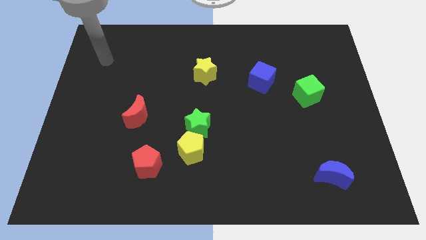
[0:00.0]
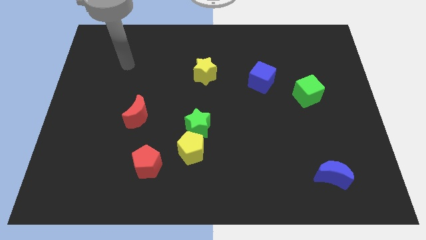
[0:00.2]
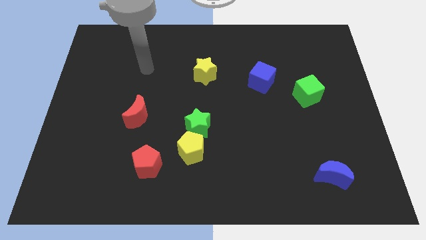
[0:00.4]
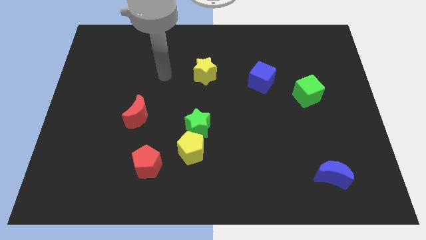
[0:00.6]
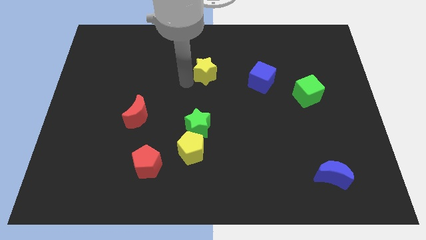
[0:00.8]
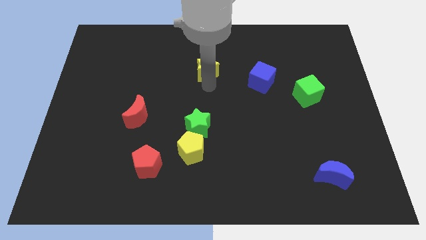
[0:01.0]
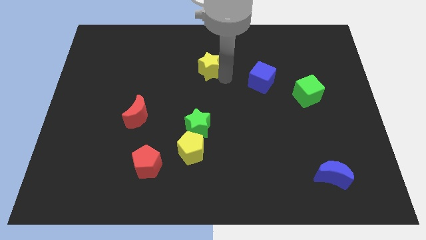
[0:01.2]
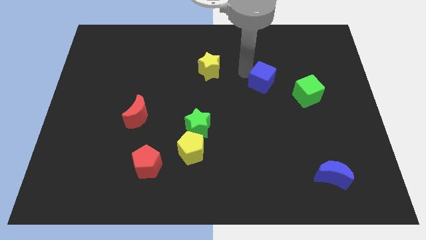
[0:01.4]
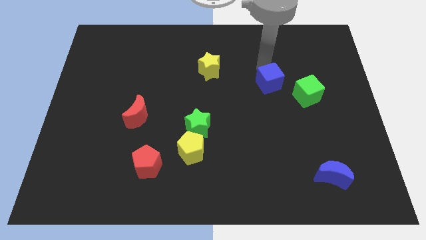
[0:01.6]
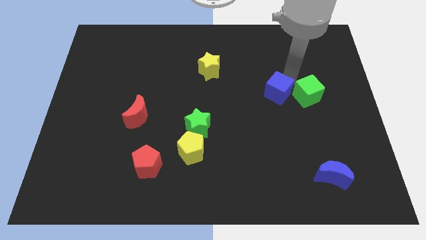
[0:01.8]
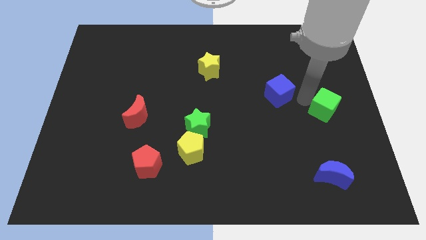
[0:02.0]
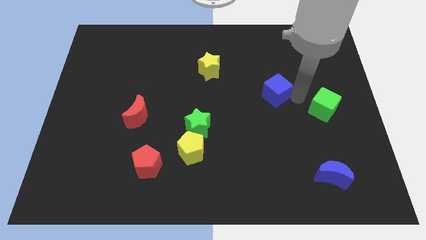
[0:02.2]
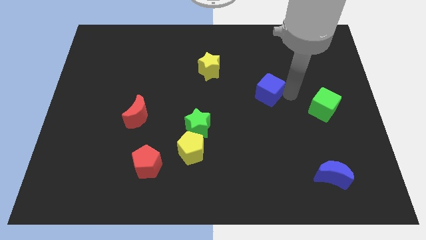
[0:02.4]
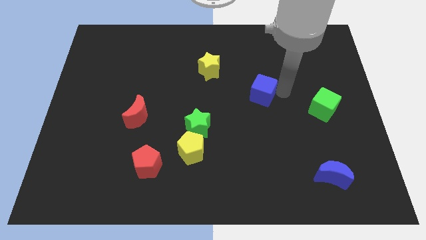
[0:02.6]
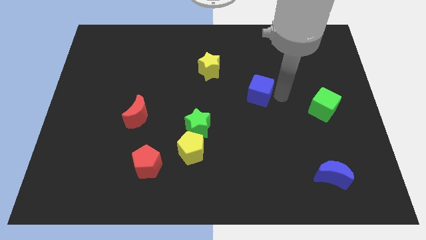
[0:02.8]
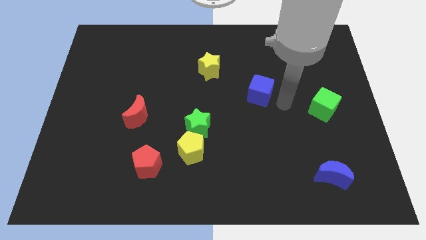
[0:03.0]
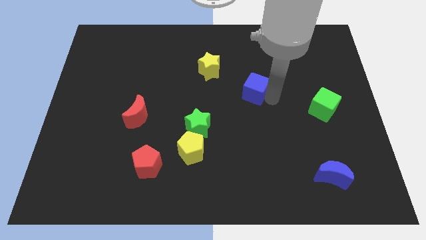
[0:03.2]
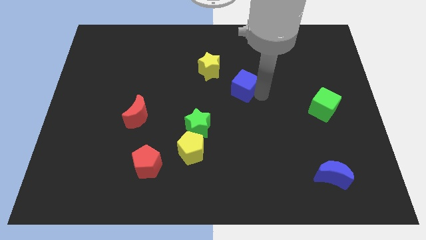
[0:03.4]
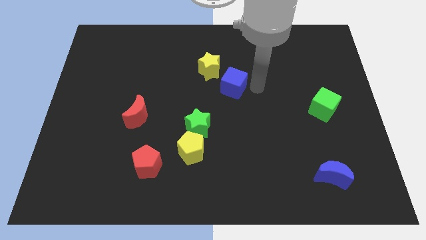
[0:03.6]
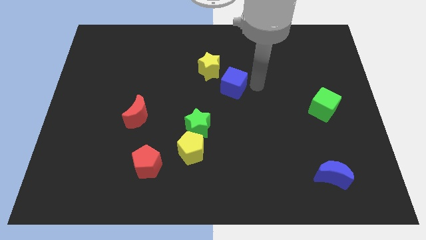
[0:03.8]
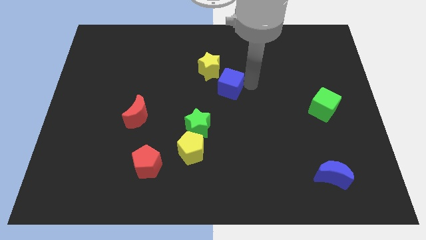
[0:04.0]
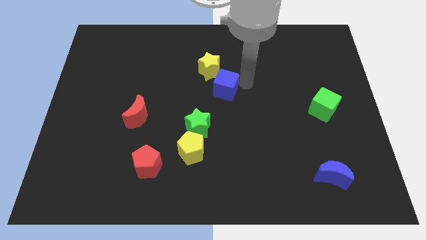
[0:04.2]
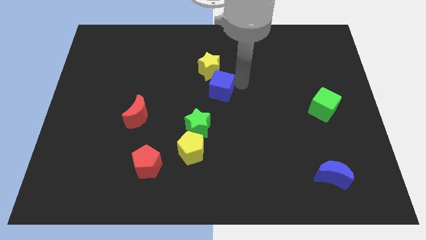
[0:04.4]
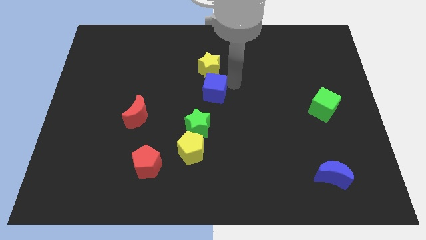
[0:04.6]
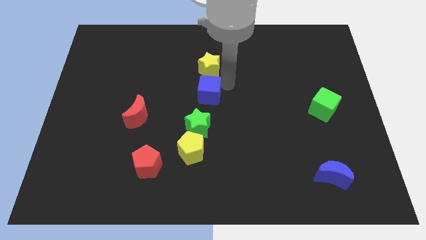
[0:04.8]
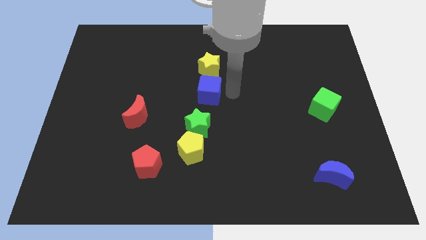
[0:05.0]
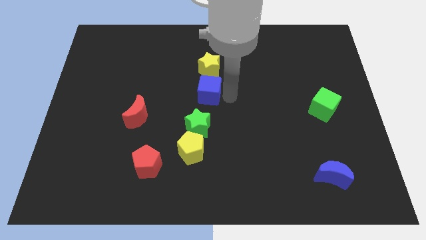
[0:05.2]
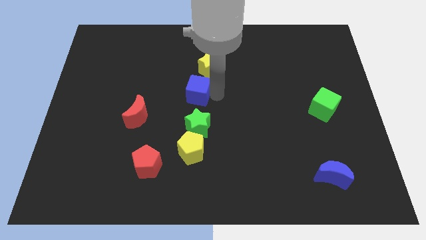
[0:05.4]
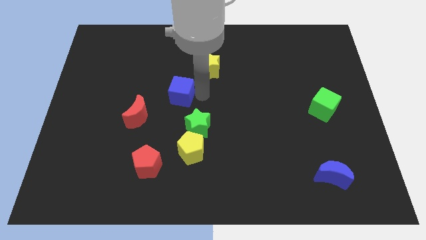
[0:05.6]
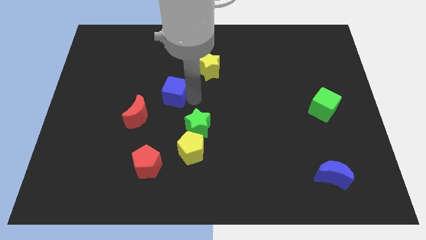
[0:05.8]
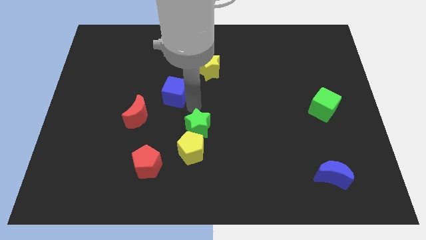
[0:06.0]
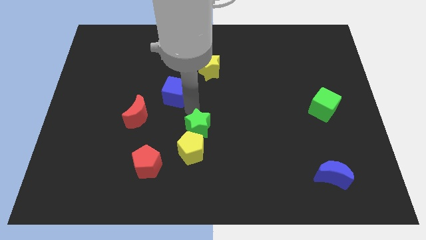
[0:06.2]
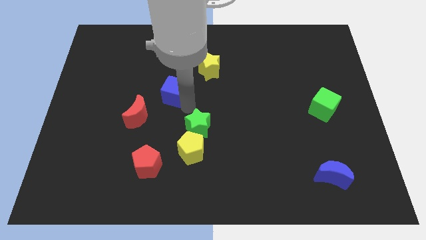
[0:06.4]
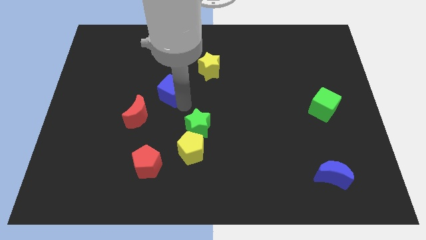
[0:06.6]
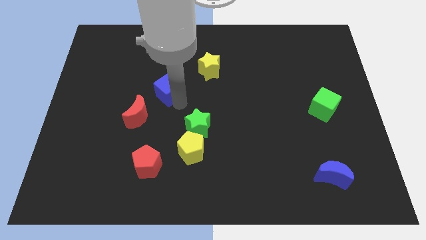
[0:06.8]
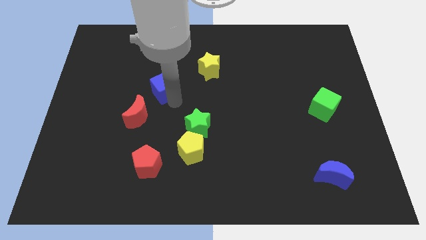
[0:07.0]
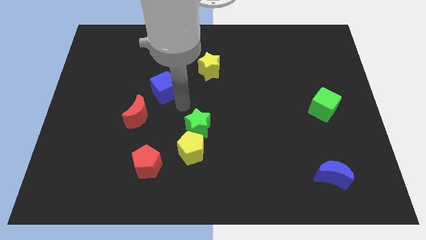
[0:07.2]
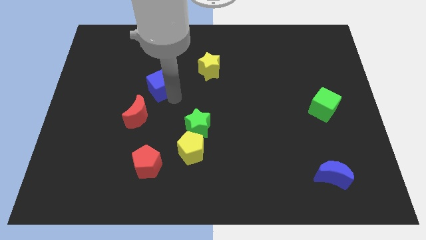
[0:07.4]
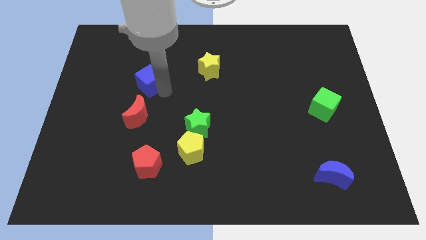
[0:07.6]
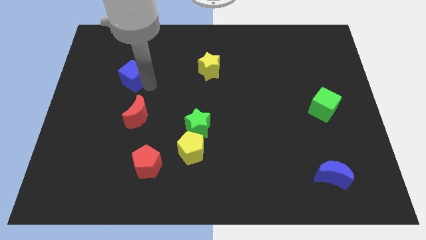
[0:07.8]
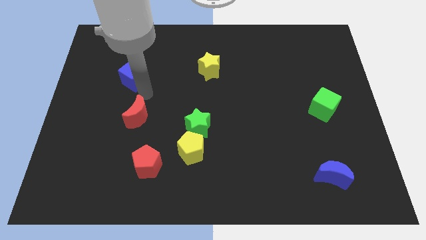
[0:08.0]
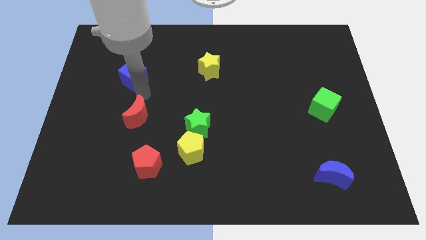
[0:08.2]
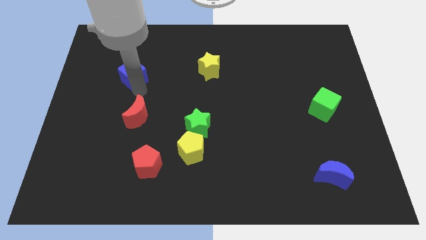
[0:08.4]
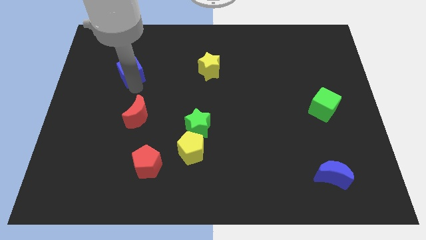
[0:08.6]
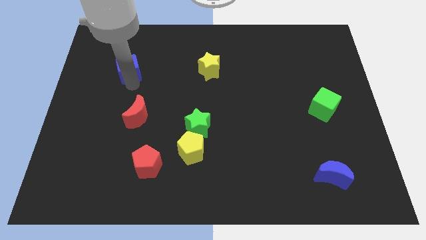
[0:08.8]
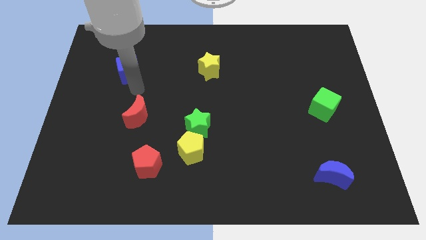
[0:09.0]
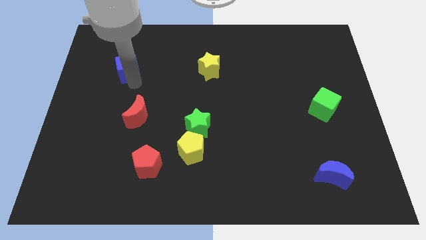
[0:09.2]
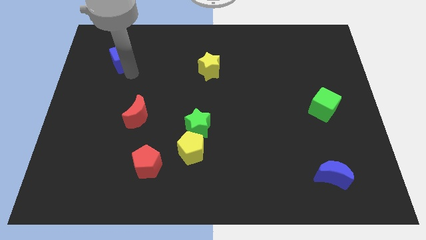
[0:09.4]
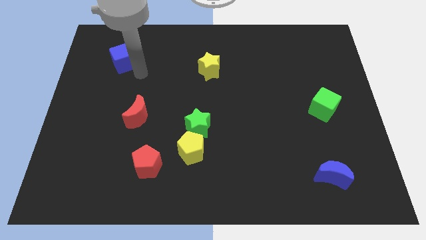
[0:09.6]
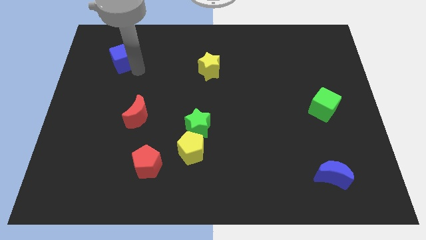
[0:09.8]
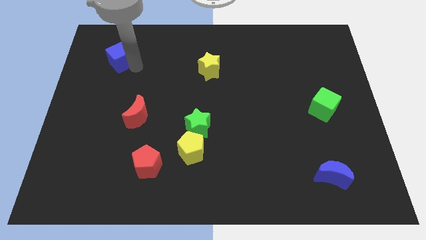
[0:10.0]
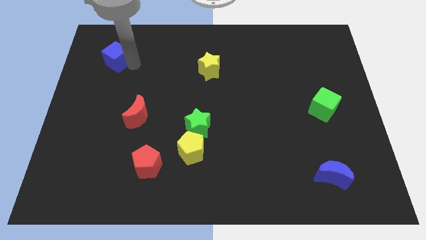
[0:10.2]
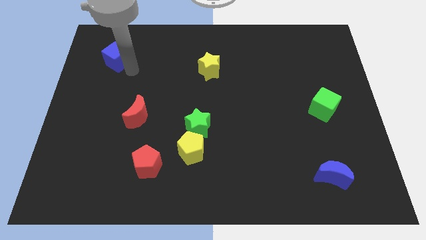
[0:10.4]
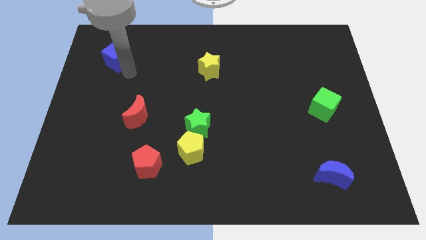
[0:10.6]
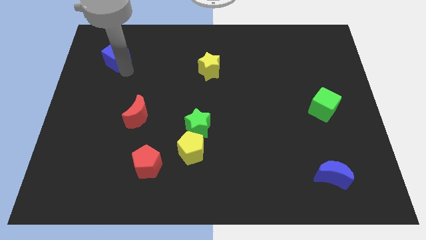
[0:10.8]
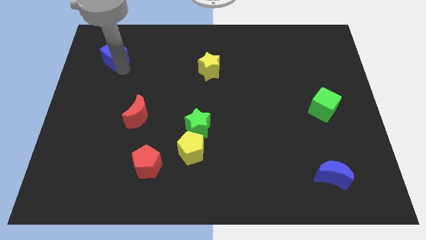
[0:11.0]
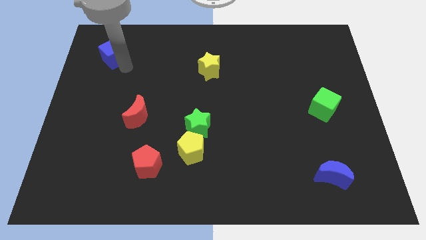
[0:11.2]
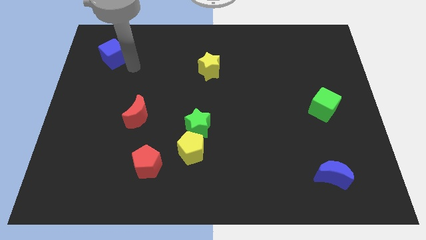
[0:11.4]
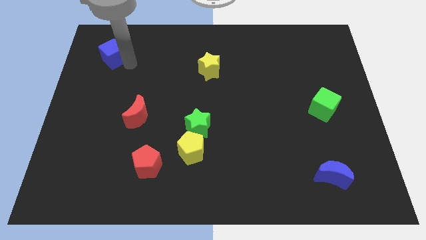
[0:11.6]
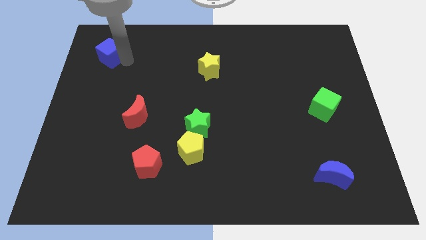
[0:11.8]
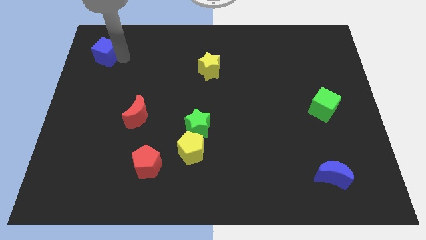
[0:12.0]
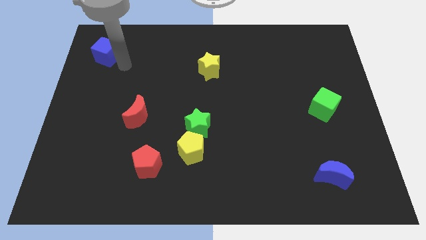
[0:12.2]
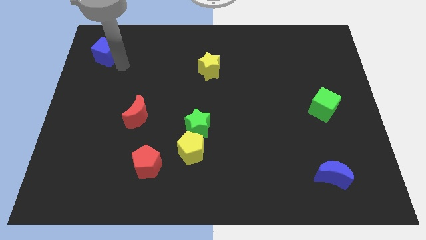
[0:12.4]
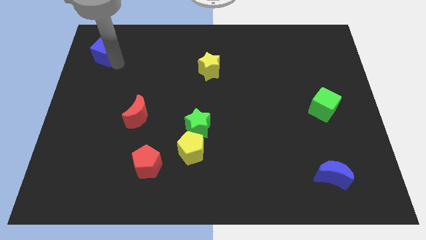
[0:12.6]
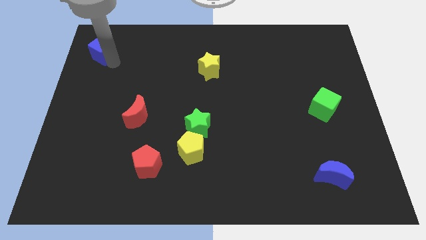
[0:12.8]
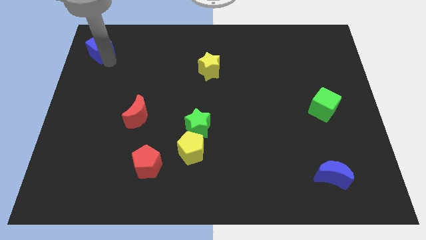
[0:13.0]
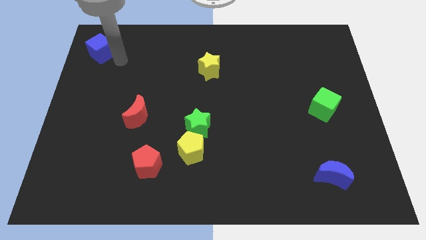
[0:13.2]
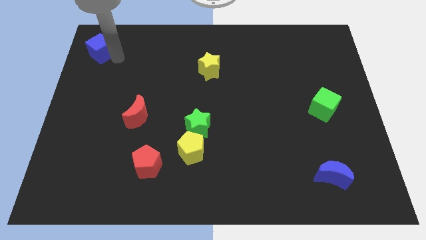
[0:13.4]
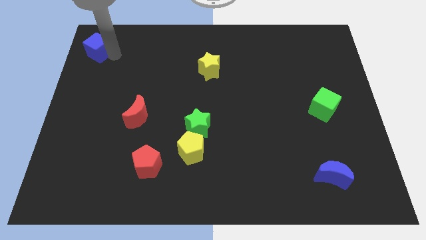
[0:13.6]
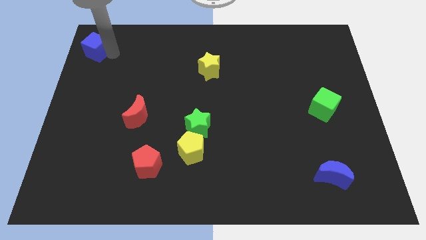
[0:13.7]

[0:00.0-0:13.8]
put the blue cube to the top left corner
